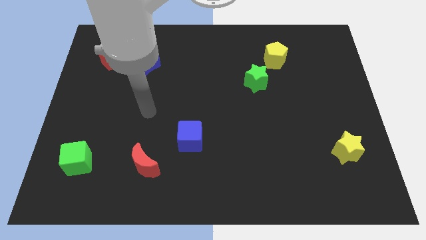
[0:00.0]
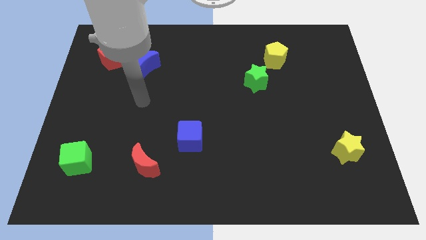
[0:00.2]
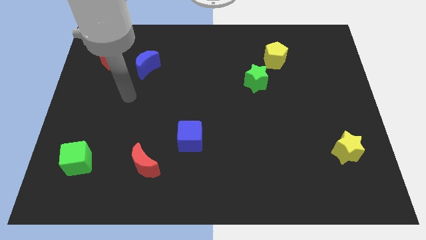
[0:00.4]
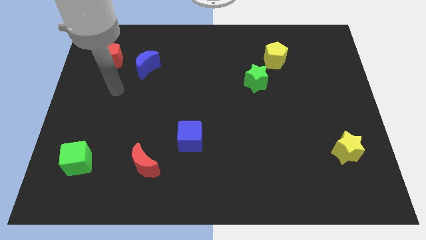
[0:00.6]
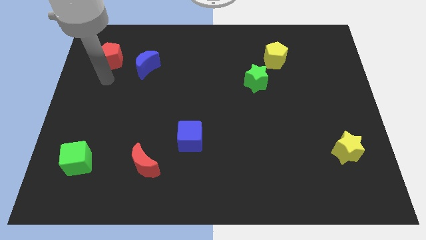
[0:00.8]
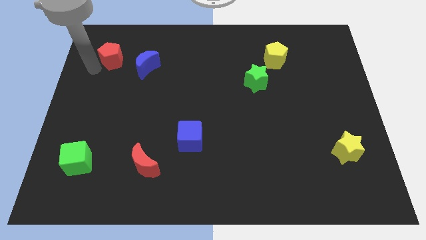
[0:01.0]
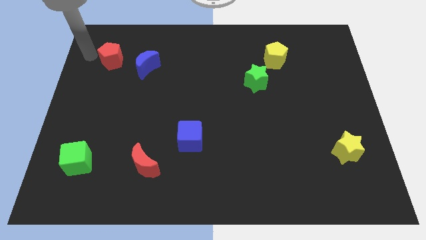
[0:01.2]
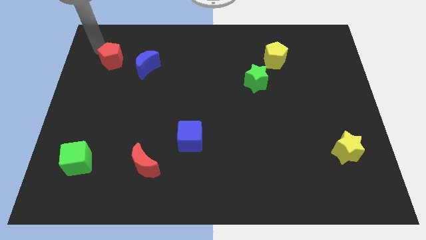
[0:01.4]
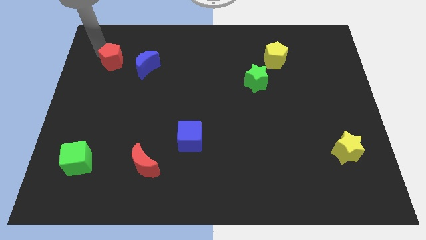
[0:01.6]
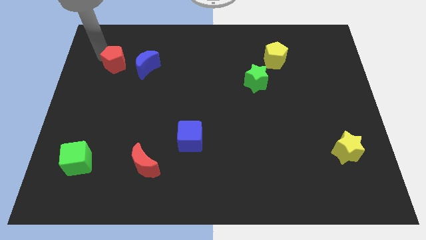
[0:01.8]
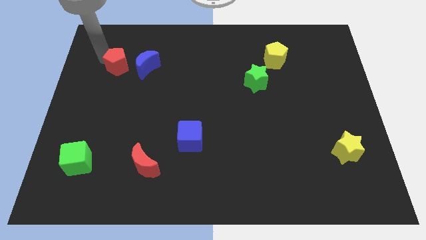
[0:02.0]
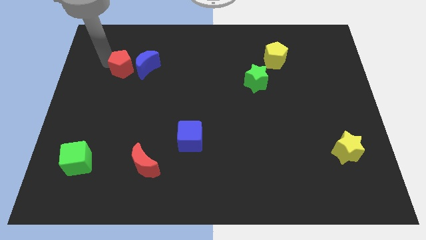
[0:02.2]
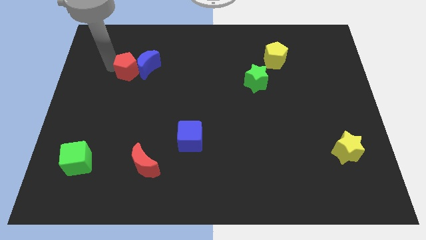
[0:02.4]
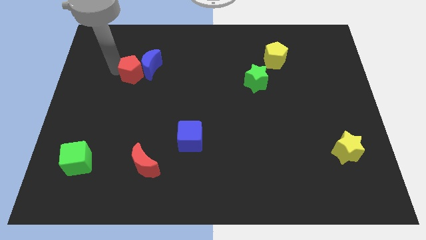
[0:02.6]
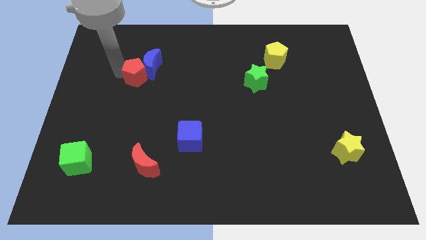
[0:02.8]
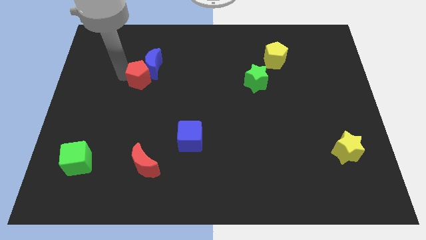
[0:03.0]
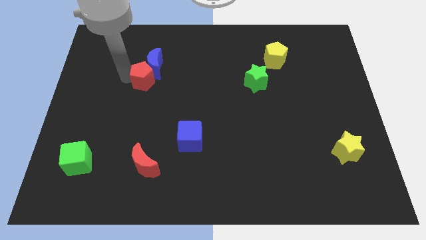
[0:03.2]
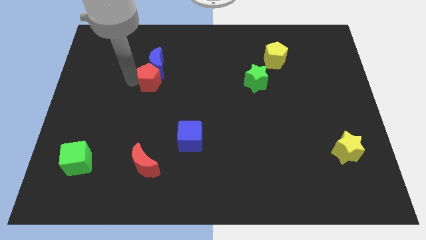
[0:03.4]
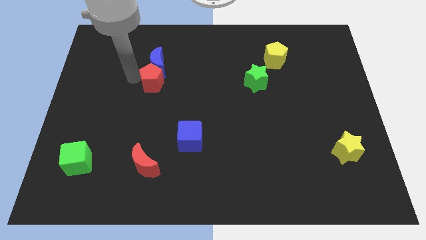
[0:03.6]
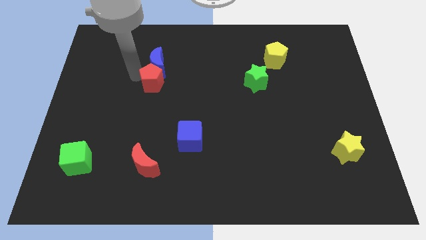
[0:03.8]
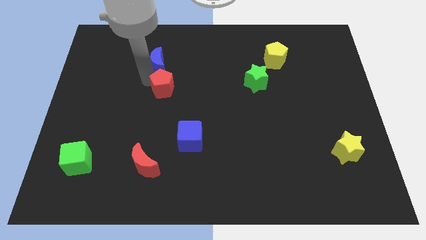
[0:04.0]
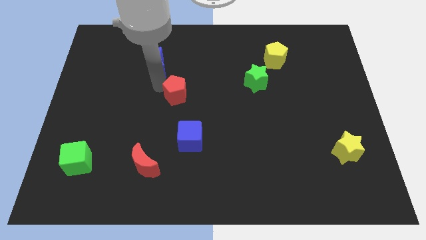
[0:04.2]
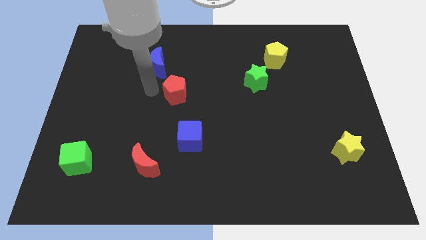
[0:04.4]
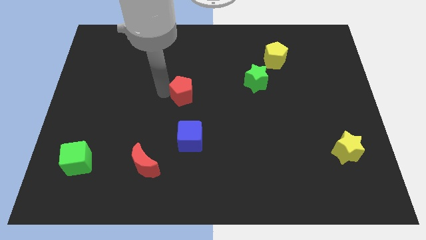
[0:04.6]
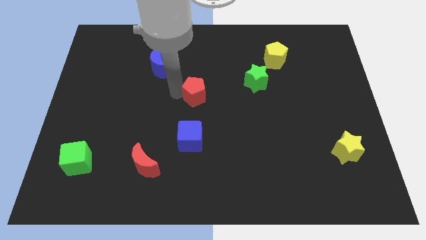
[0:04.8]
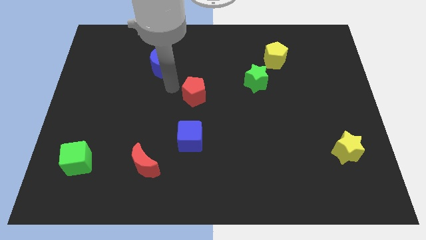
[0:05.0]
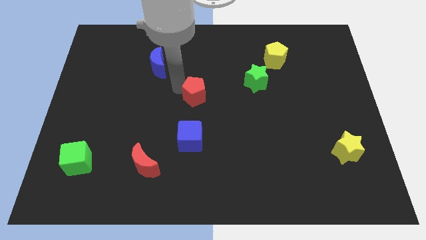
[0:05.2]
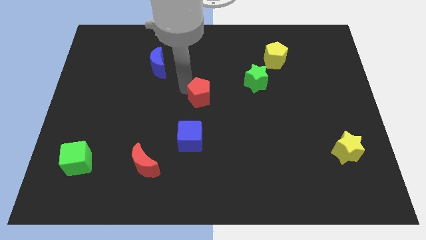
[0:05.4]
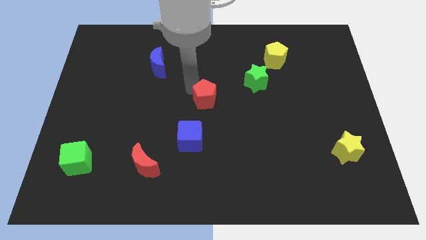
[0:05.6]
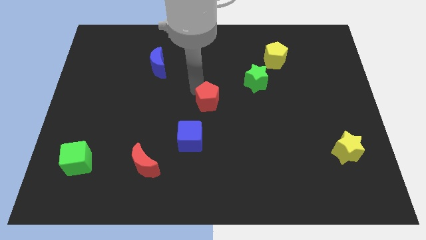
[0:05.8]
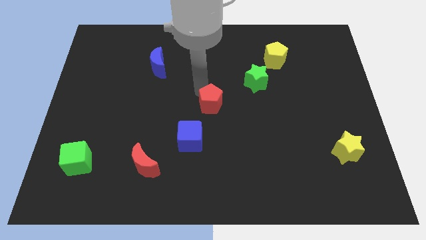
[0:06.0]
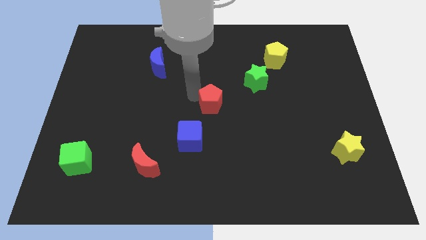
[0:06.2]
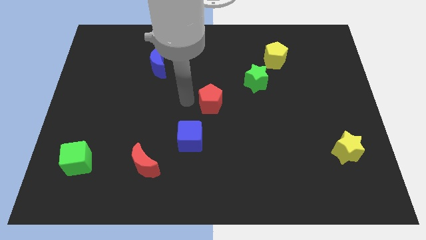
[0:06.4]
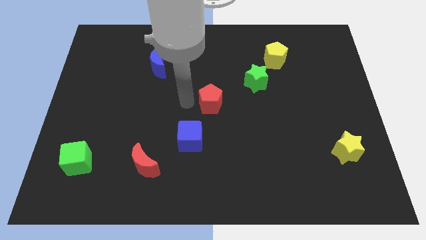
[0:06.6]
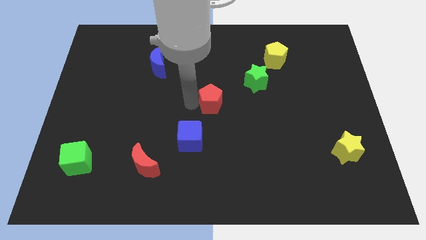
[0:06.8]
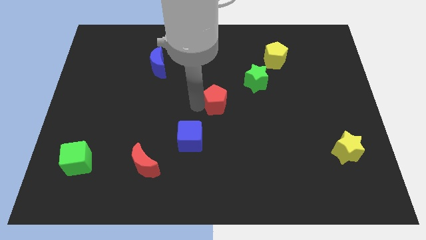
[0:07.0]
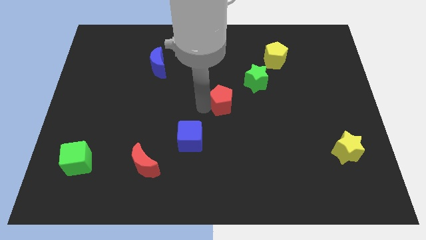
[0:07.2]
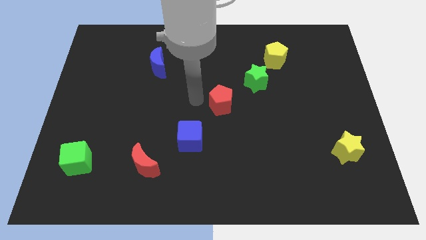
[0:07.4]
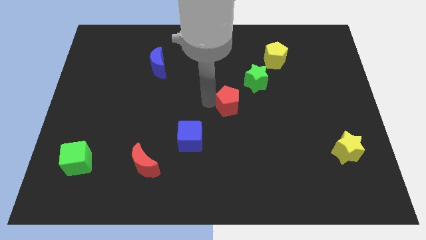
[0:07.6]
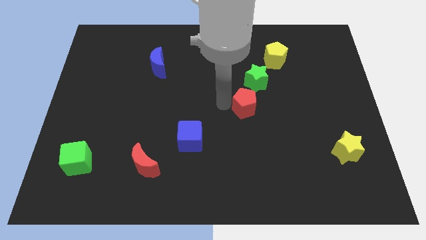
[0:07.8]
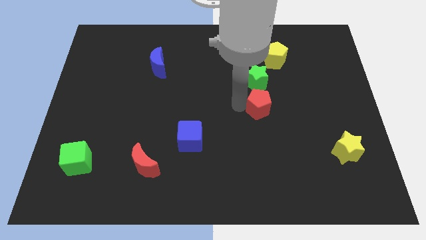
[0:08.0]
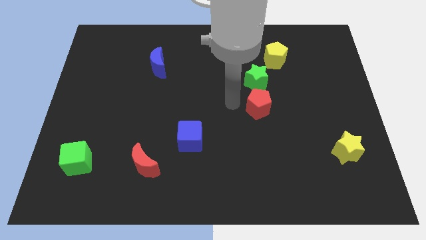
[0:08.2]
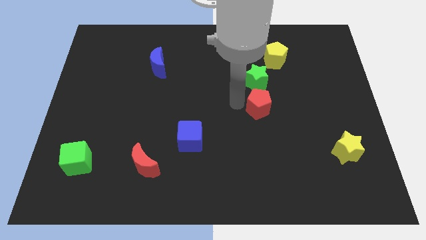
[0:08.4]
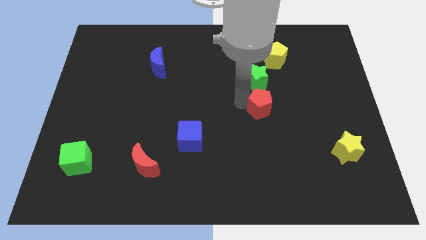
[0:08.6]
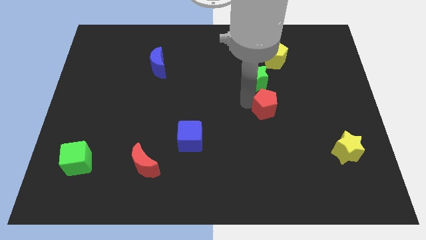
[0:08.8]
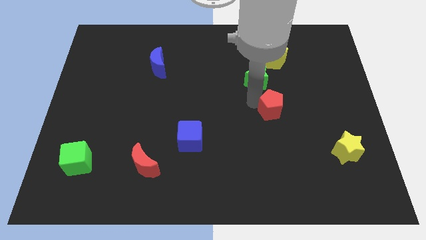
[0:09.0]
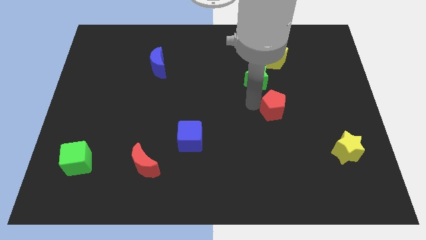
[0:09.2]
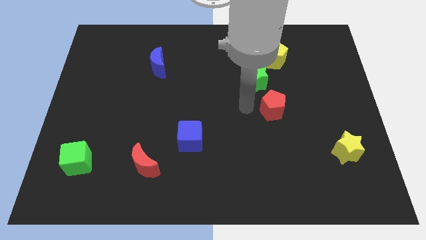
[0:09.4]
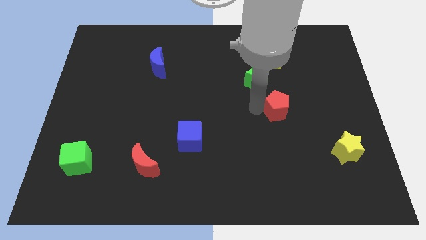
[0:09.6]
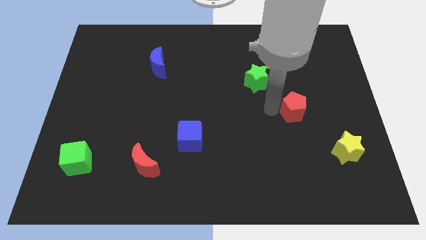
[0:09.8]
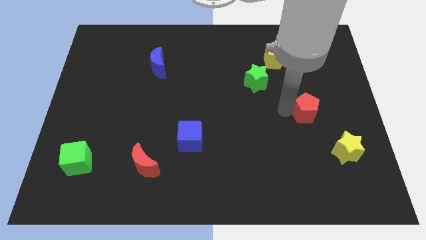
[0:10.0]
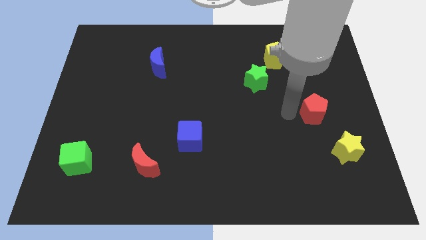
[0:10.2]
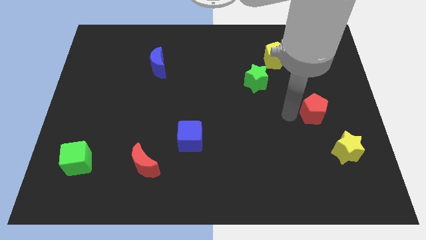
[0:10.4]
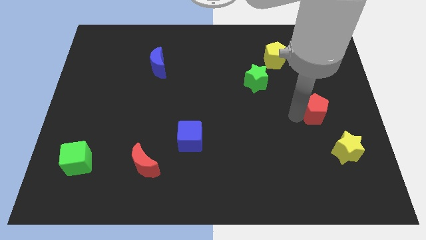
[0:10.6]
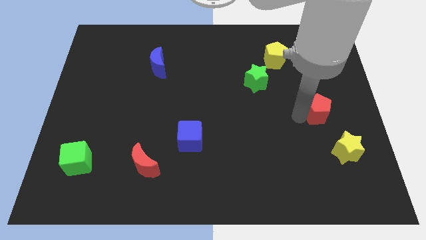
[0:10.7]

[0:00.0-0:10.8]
move the red pentagon above the yellow star

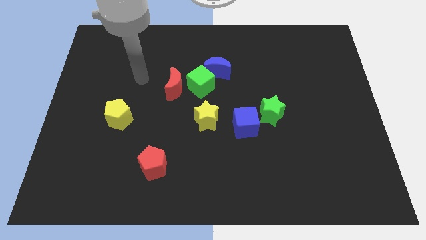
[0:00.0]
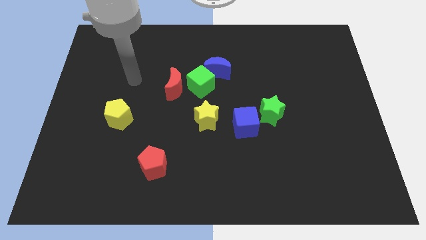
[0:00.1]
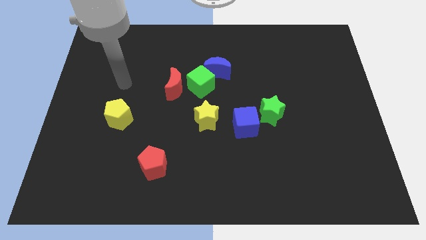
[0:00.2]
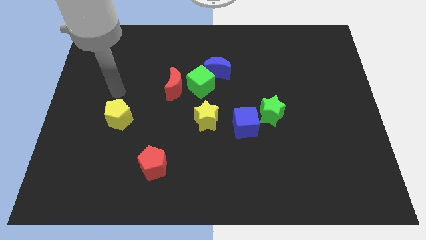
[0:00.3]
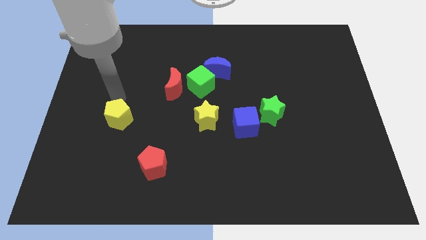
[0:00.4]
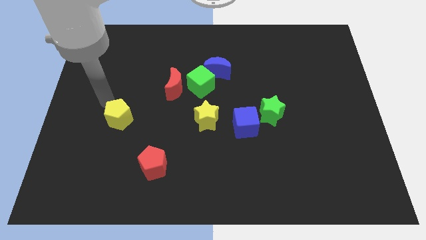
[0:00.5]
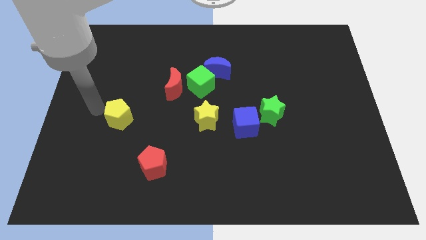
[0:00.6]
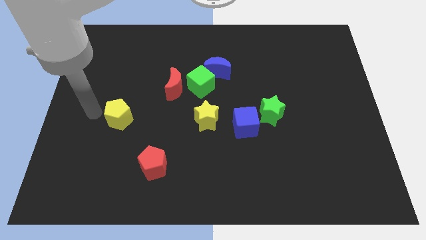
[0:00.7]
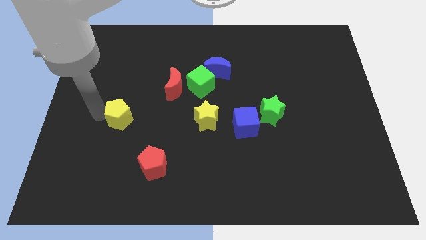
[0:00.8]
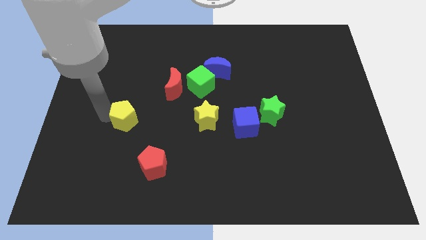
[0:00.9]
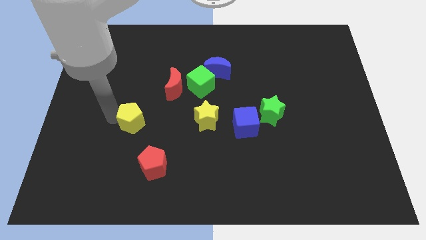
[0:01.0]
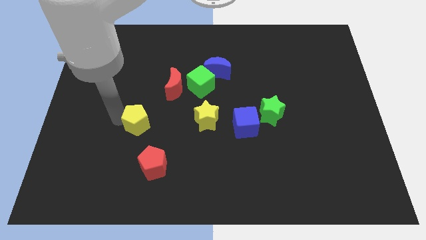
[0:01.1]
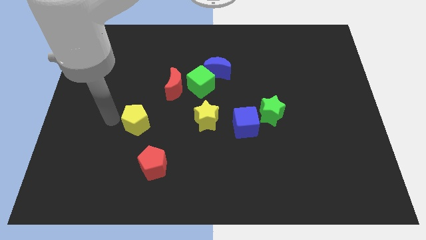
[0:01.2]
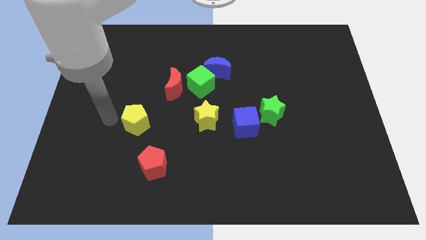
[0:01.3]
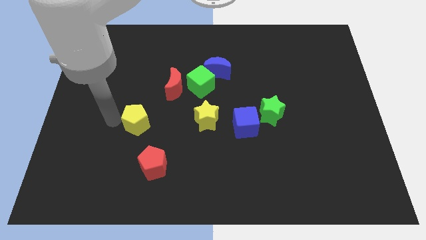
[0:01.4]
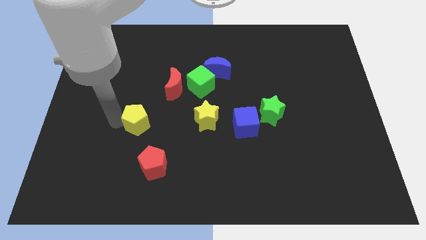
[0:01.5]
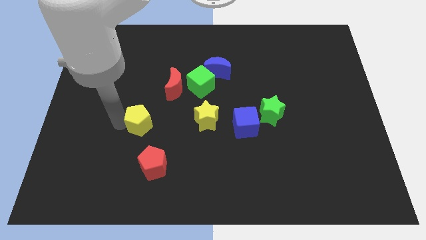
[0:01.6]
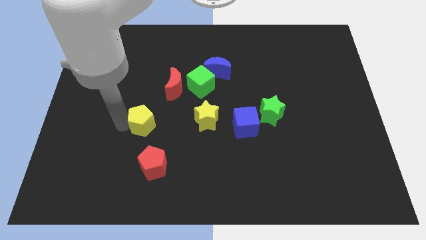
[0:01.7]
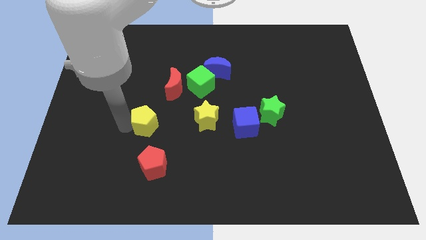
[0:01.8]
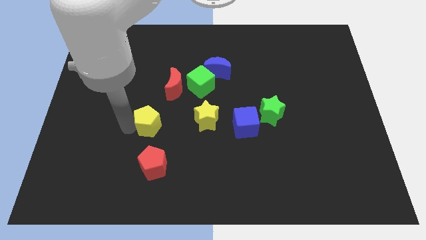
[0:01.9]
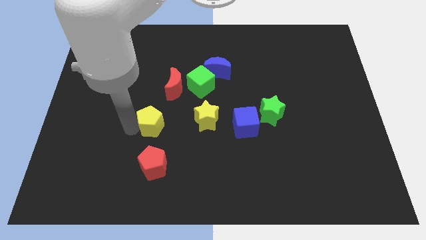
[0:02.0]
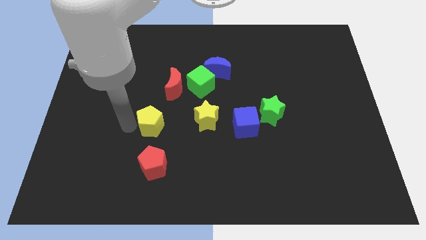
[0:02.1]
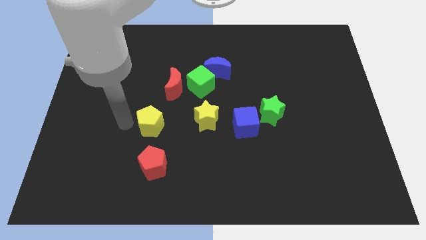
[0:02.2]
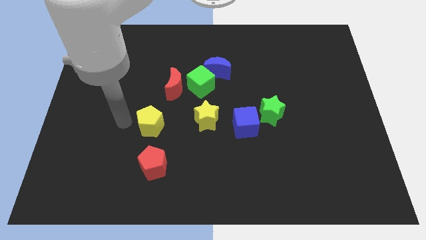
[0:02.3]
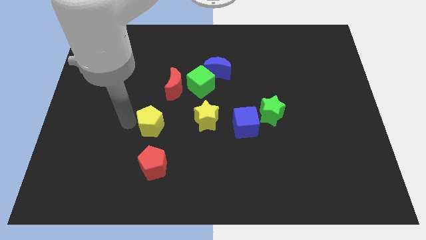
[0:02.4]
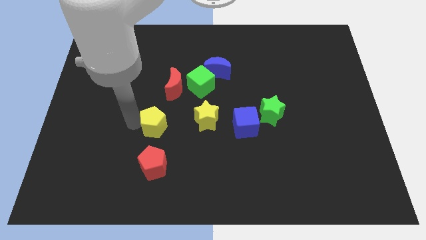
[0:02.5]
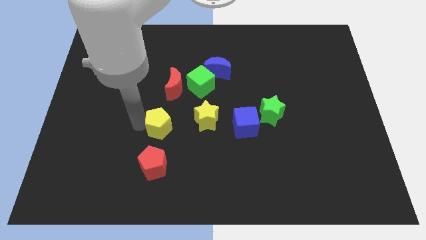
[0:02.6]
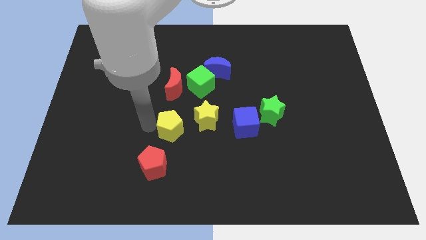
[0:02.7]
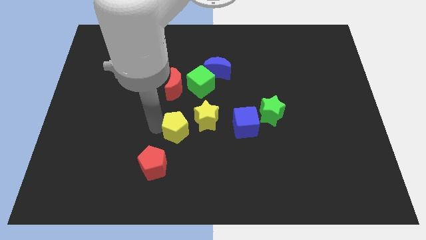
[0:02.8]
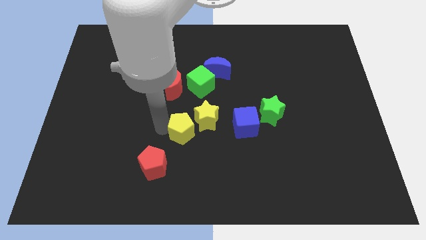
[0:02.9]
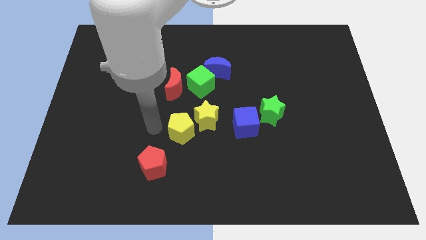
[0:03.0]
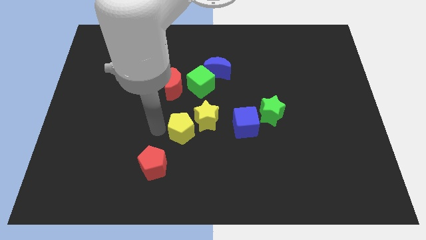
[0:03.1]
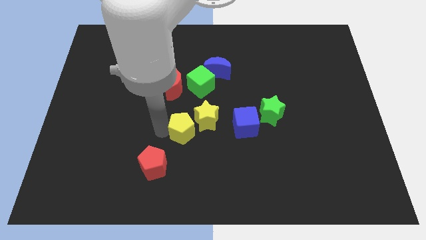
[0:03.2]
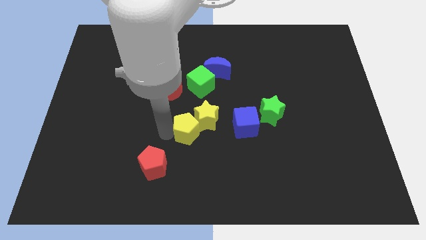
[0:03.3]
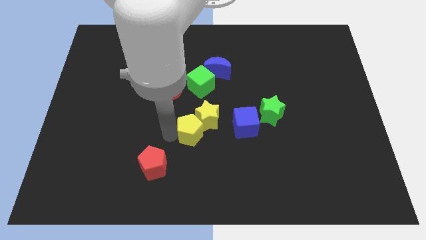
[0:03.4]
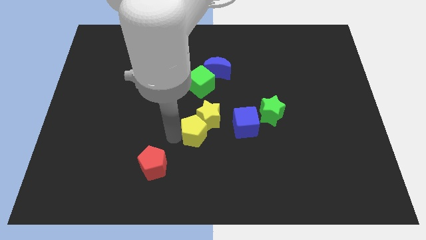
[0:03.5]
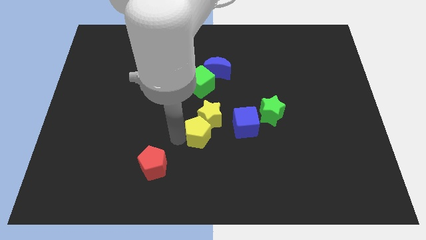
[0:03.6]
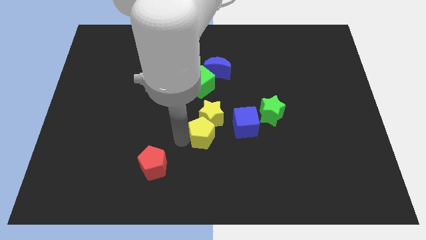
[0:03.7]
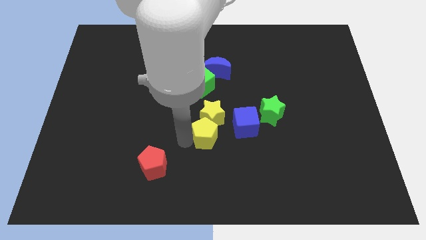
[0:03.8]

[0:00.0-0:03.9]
slide the yellow pentagon to the bottom right of the yellow star
